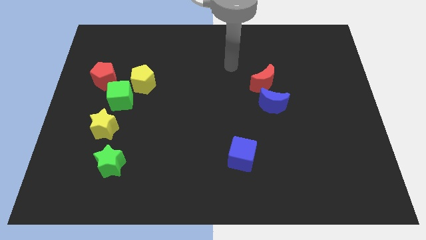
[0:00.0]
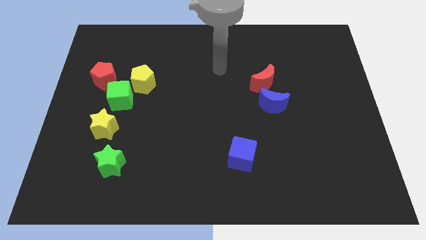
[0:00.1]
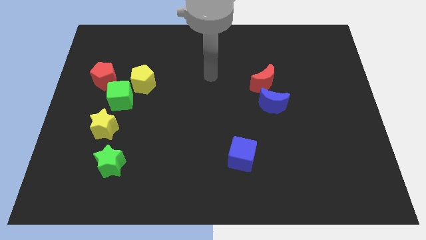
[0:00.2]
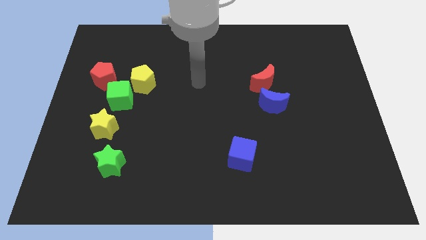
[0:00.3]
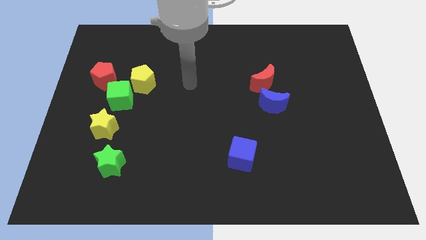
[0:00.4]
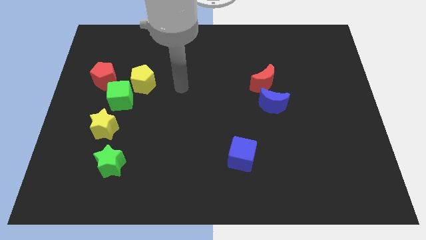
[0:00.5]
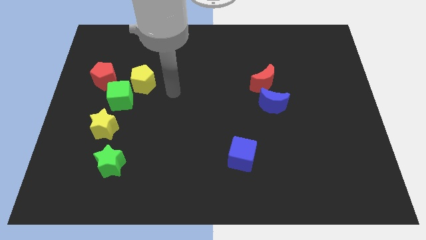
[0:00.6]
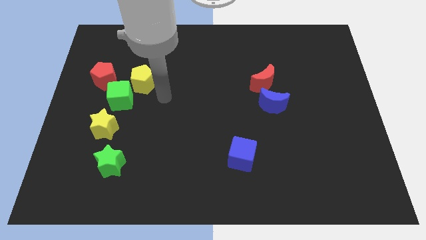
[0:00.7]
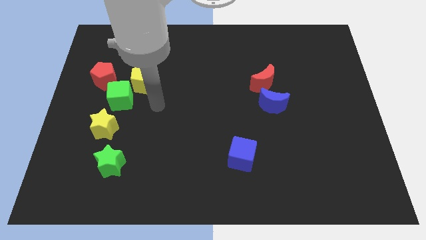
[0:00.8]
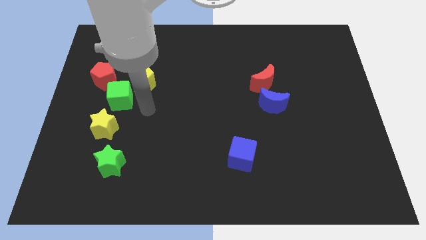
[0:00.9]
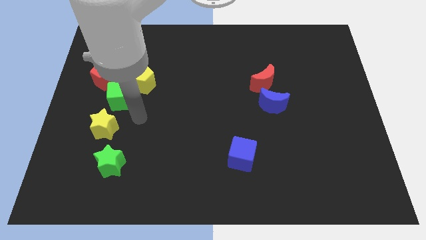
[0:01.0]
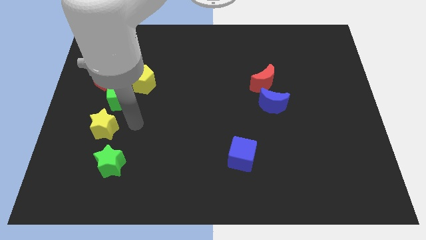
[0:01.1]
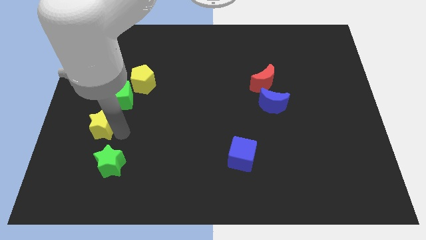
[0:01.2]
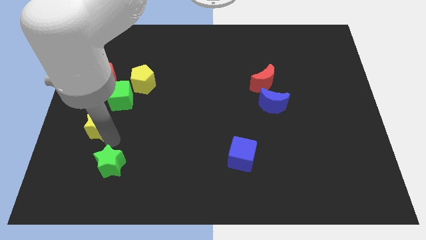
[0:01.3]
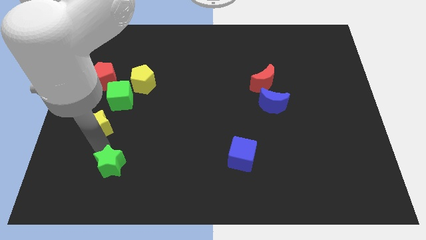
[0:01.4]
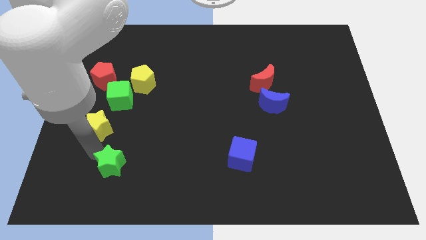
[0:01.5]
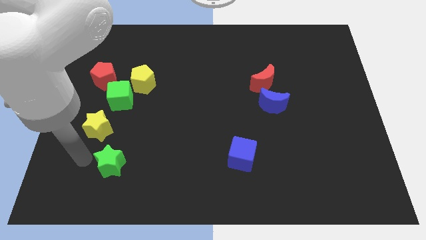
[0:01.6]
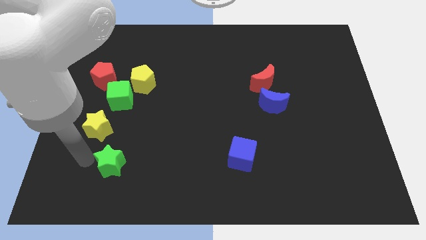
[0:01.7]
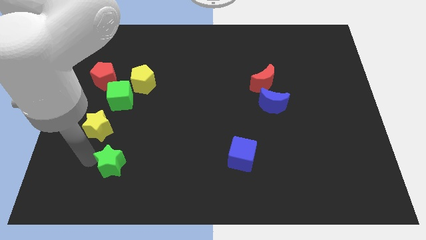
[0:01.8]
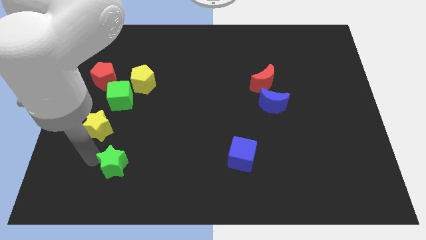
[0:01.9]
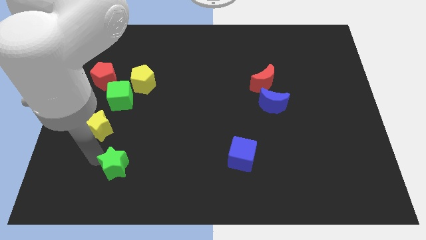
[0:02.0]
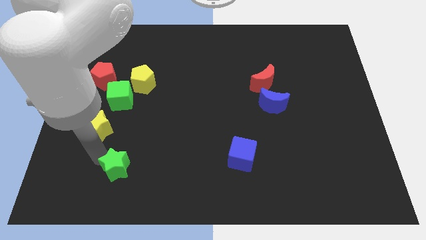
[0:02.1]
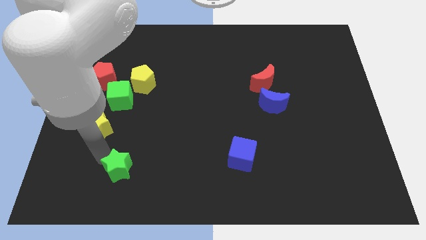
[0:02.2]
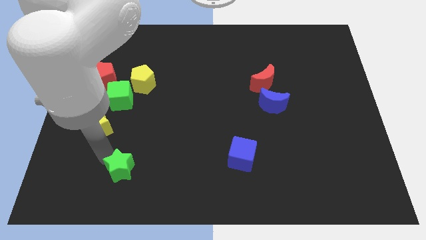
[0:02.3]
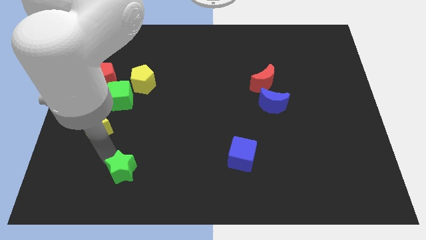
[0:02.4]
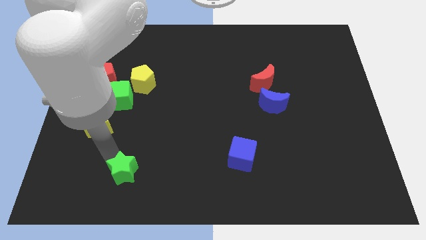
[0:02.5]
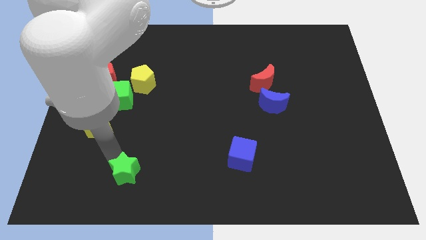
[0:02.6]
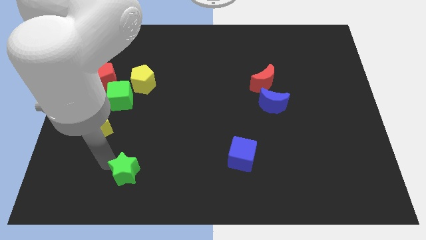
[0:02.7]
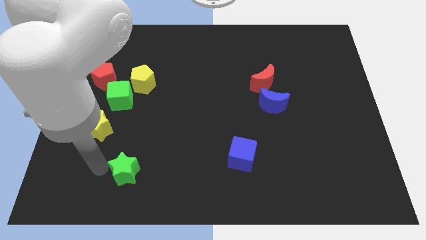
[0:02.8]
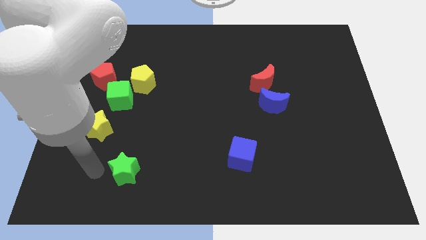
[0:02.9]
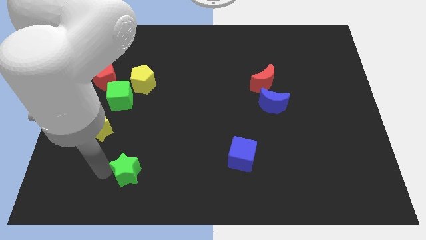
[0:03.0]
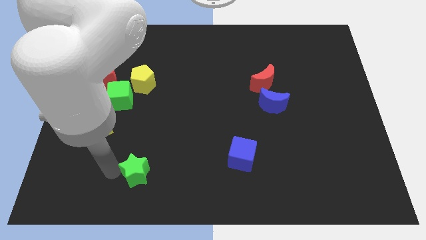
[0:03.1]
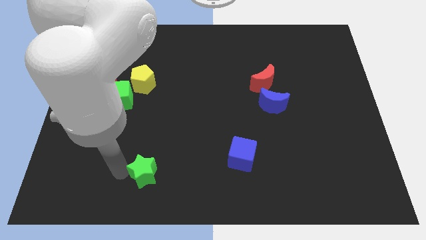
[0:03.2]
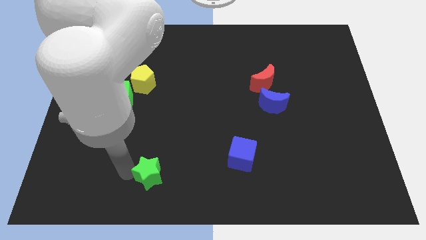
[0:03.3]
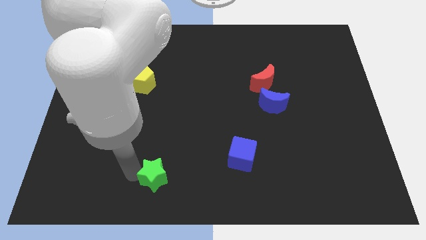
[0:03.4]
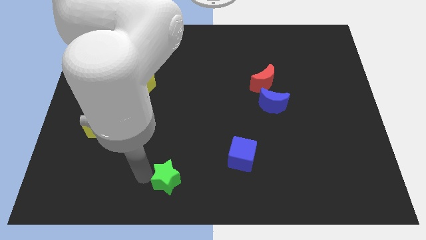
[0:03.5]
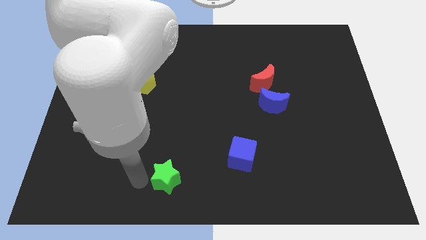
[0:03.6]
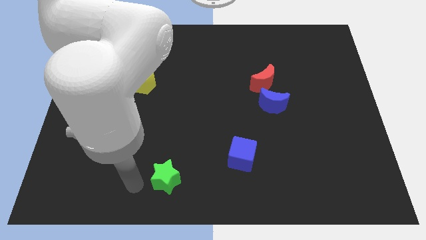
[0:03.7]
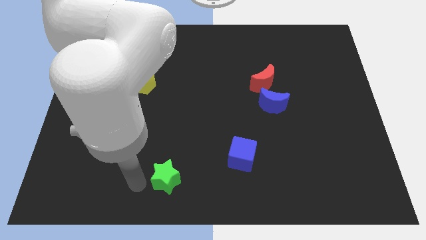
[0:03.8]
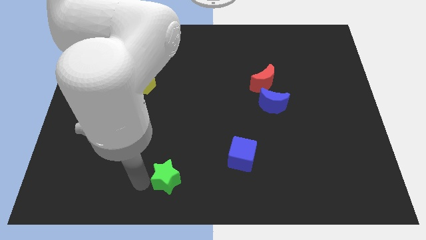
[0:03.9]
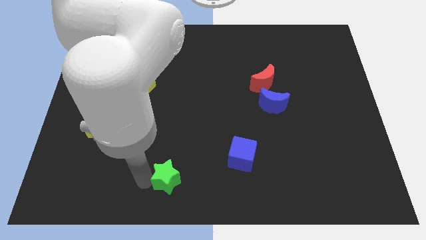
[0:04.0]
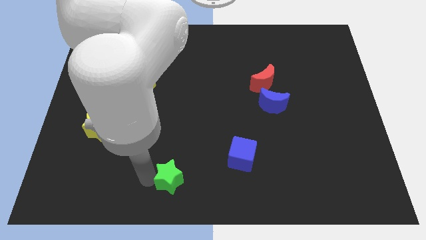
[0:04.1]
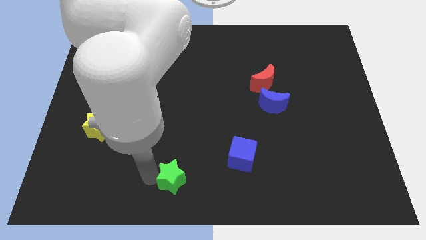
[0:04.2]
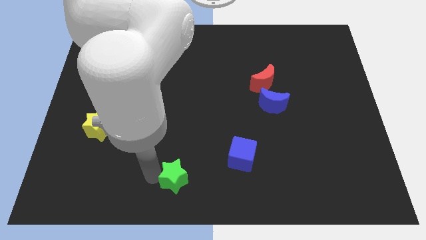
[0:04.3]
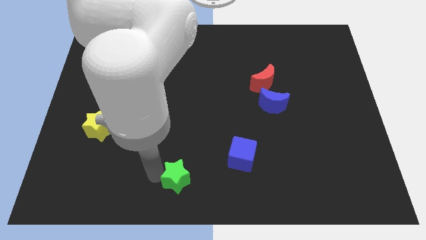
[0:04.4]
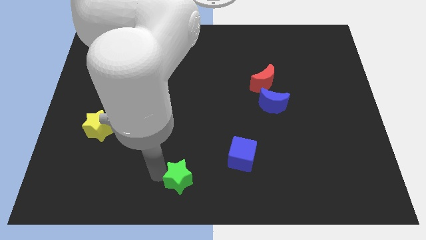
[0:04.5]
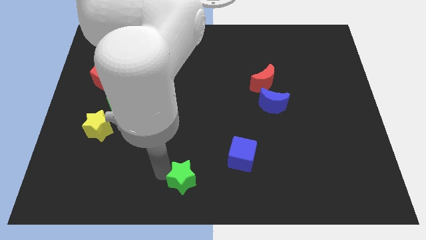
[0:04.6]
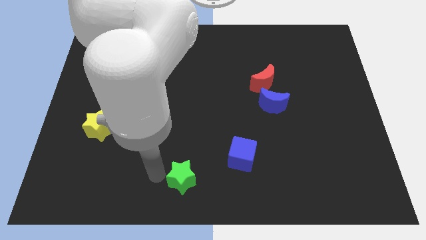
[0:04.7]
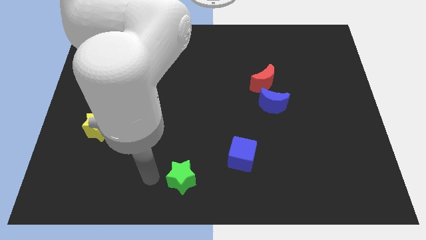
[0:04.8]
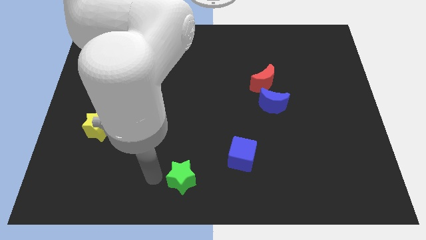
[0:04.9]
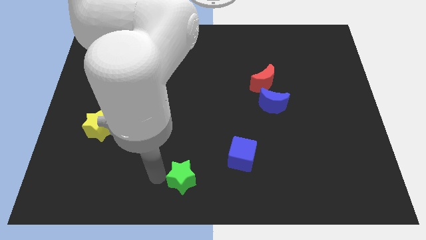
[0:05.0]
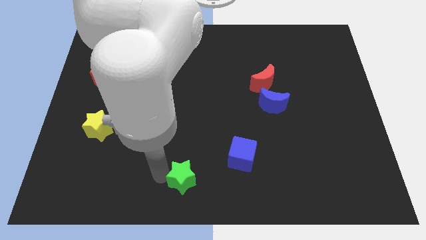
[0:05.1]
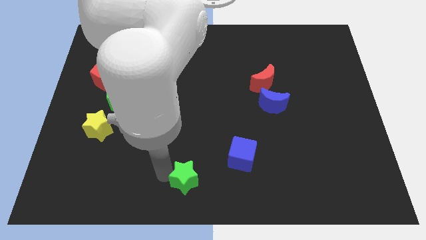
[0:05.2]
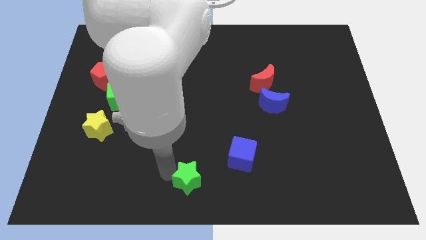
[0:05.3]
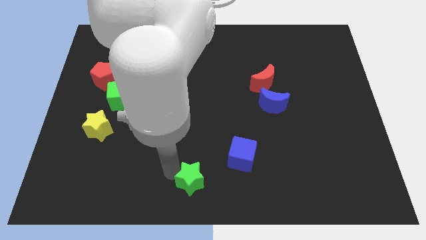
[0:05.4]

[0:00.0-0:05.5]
push the green star diagonally down and to the left of the blue cube
